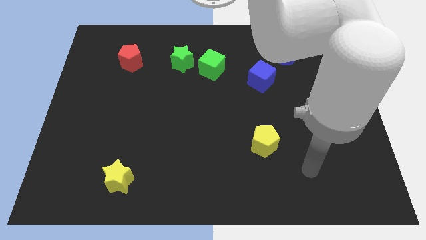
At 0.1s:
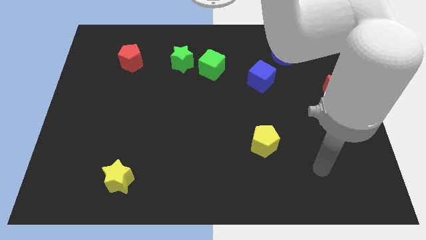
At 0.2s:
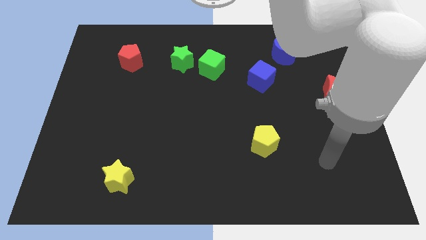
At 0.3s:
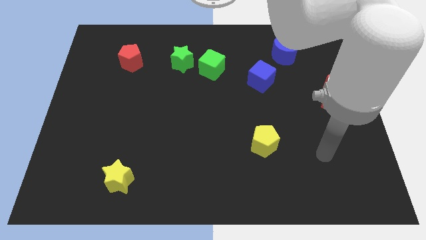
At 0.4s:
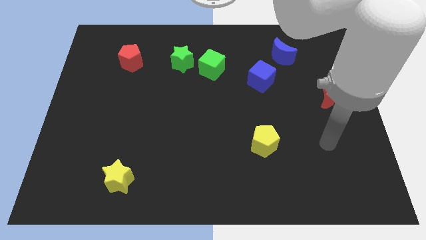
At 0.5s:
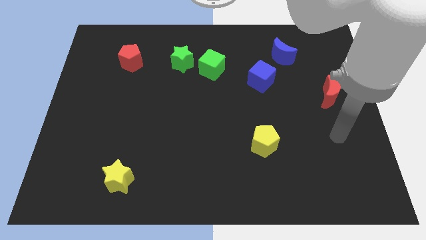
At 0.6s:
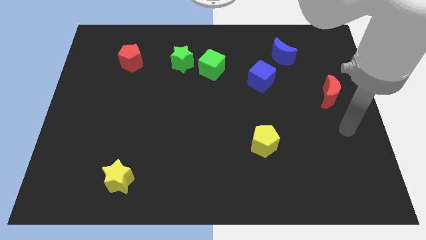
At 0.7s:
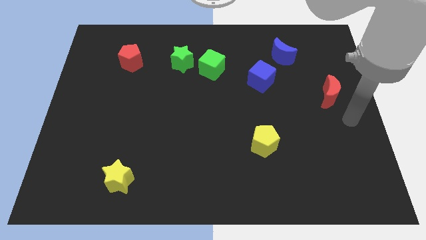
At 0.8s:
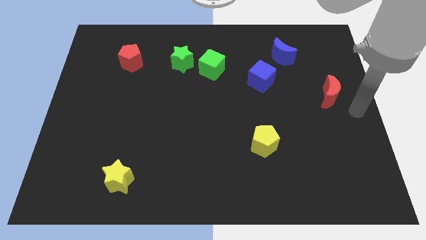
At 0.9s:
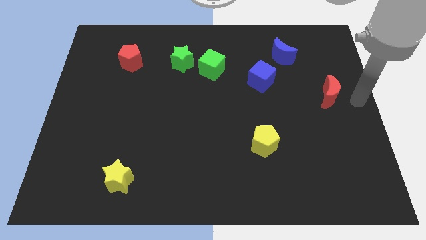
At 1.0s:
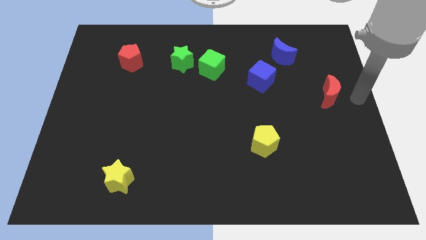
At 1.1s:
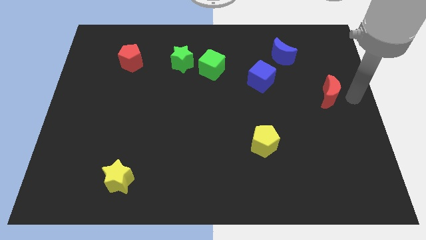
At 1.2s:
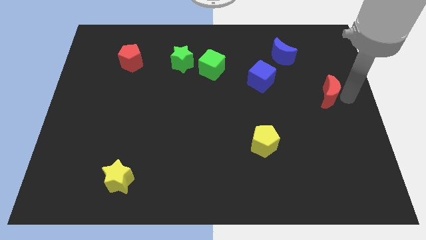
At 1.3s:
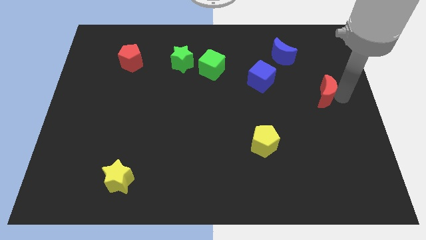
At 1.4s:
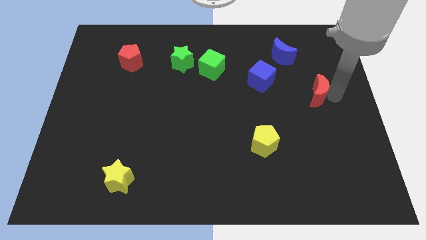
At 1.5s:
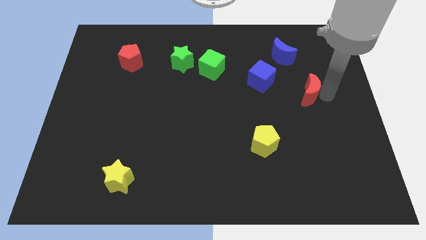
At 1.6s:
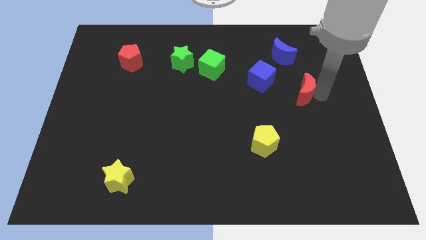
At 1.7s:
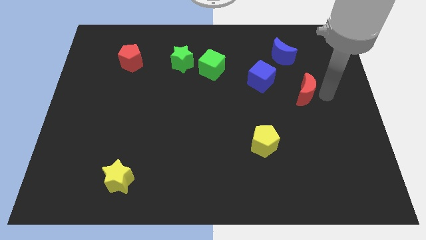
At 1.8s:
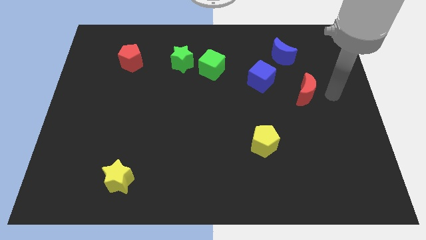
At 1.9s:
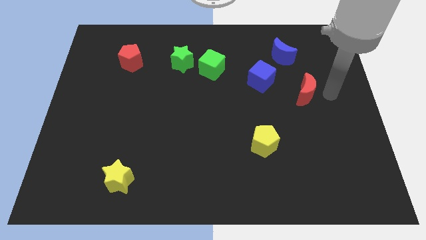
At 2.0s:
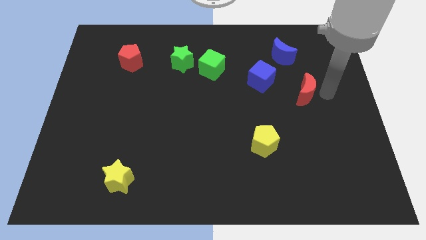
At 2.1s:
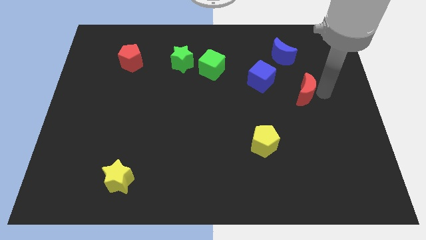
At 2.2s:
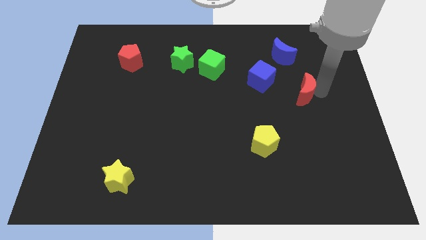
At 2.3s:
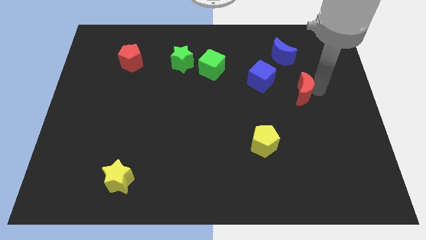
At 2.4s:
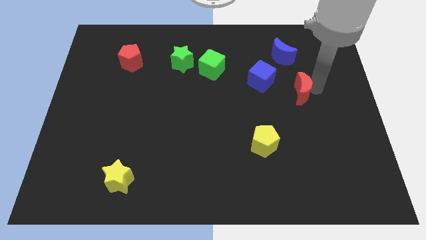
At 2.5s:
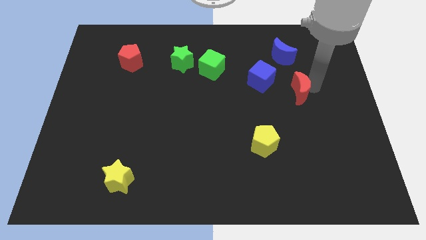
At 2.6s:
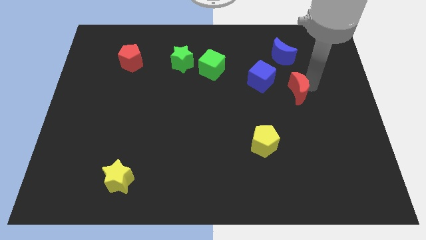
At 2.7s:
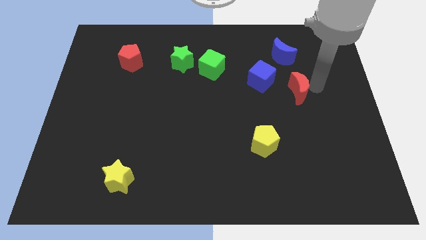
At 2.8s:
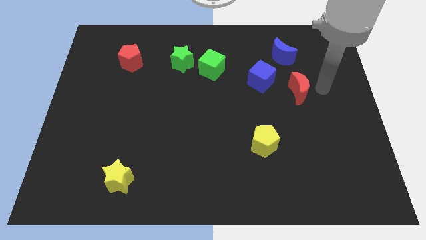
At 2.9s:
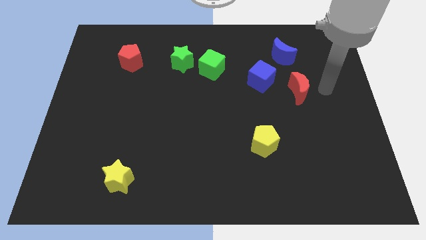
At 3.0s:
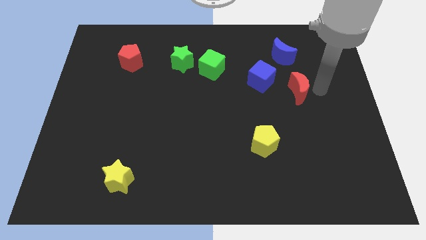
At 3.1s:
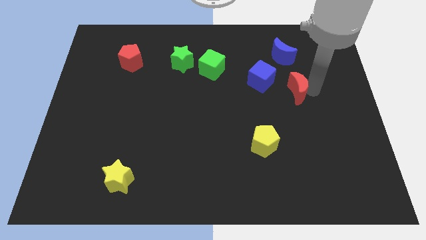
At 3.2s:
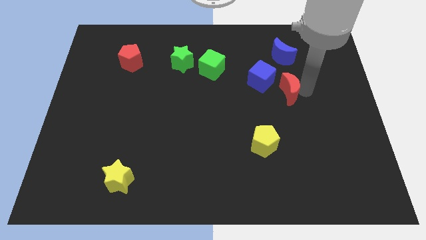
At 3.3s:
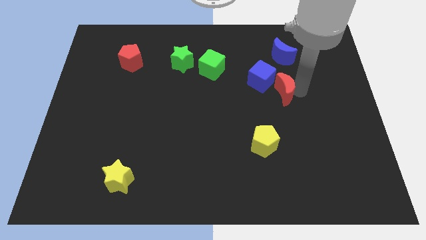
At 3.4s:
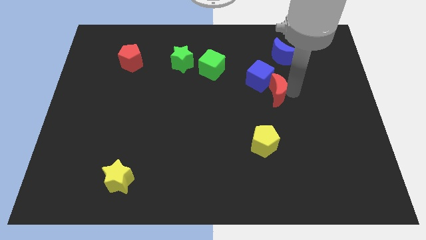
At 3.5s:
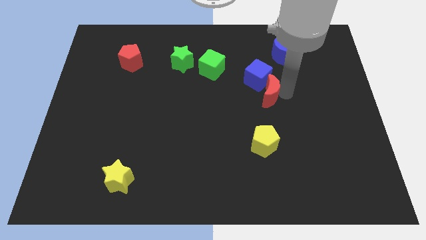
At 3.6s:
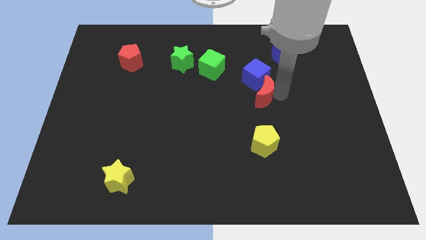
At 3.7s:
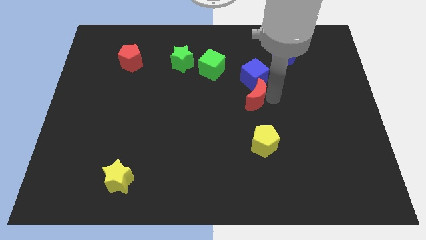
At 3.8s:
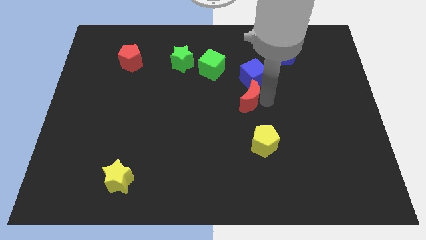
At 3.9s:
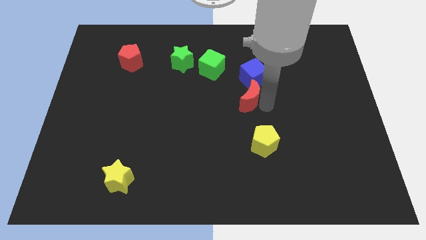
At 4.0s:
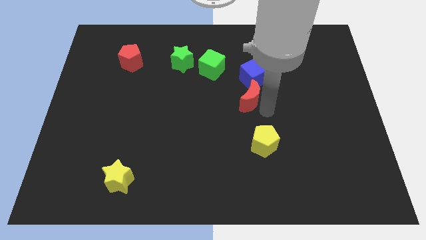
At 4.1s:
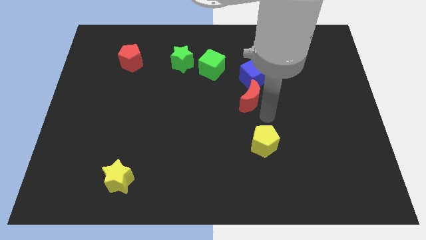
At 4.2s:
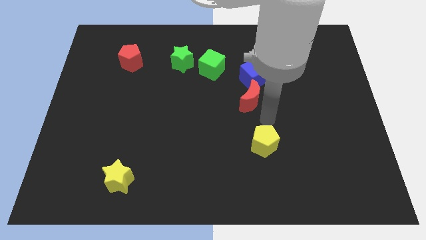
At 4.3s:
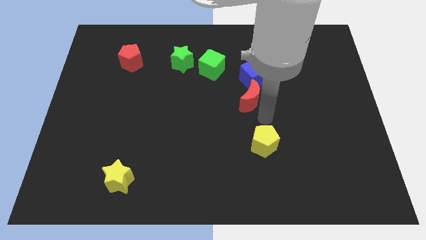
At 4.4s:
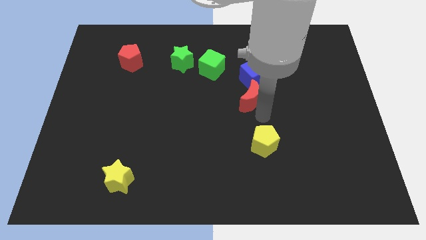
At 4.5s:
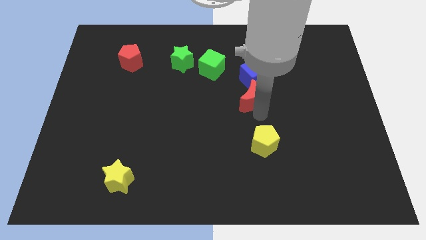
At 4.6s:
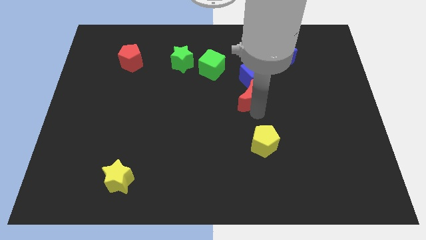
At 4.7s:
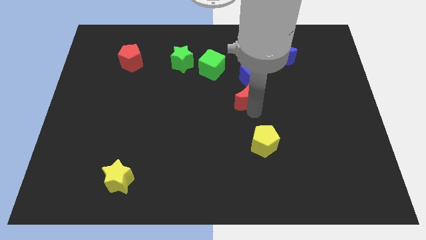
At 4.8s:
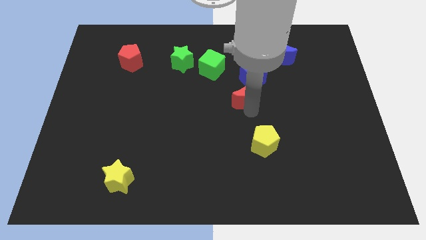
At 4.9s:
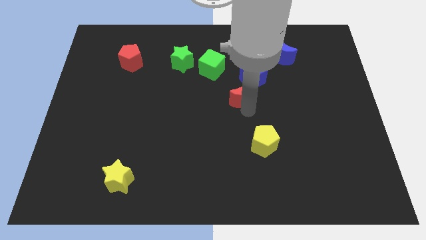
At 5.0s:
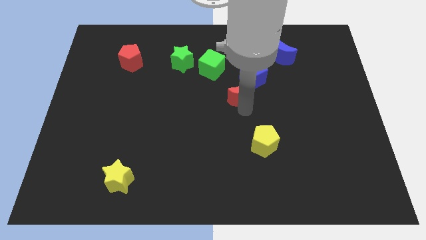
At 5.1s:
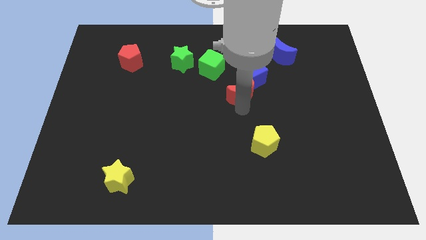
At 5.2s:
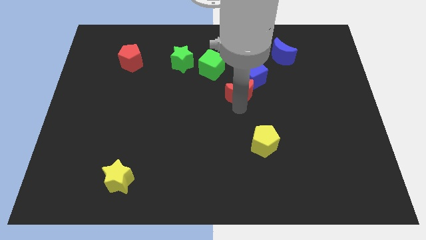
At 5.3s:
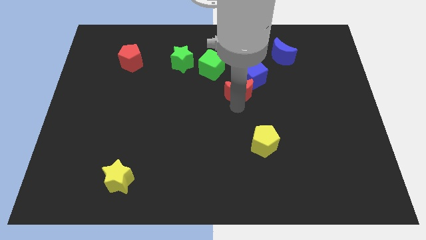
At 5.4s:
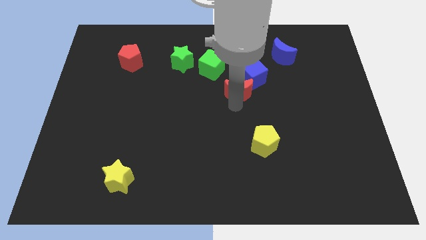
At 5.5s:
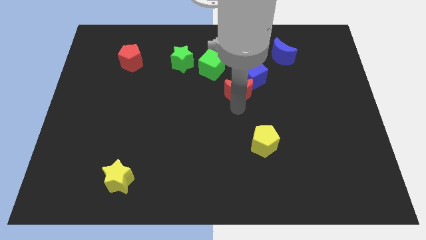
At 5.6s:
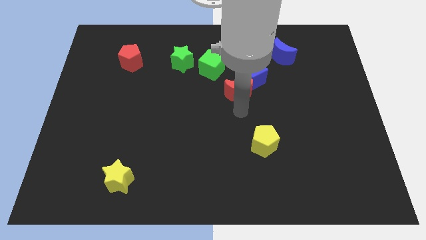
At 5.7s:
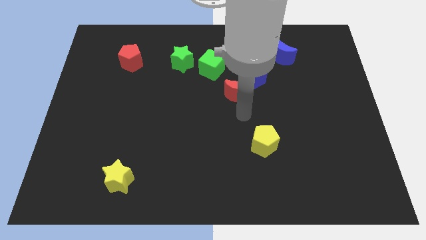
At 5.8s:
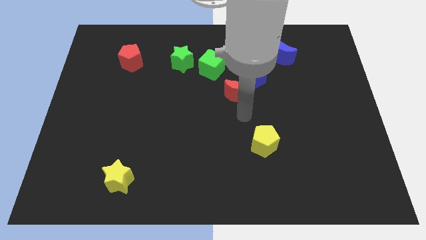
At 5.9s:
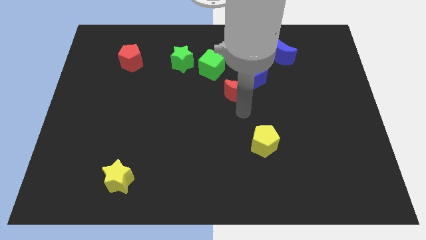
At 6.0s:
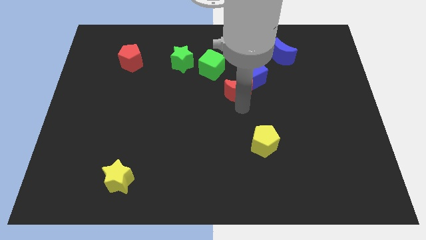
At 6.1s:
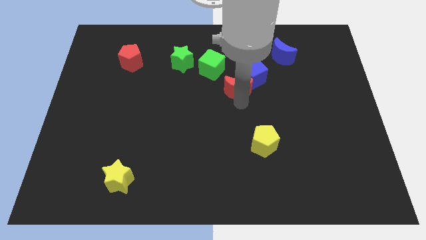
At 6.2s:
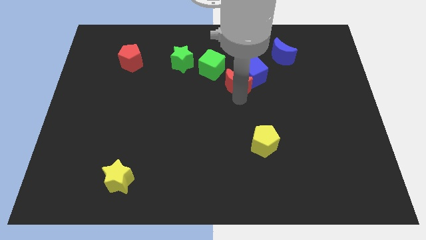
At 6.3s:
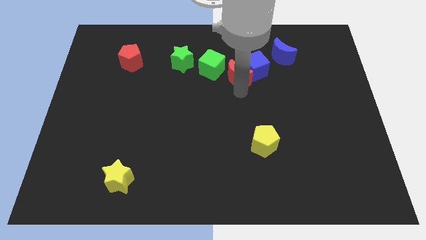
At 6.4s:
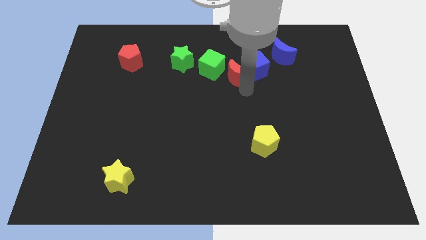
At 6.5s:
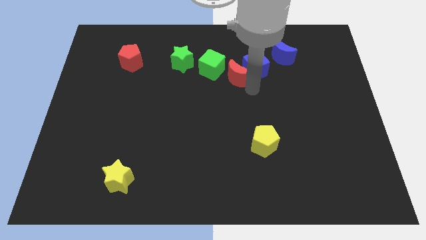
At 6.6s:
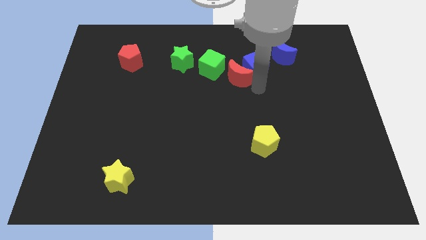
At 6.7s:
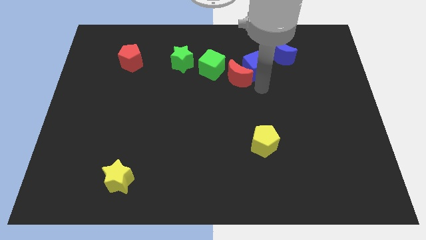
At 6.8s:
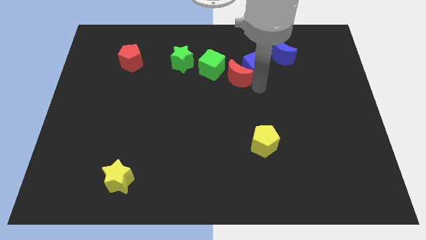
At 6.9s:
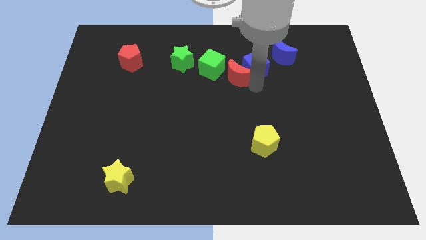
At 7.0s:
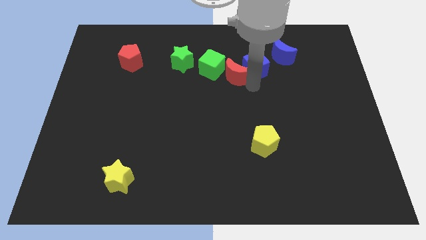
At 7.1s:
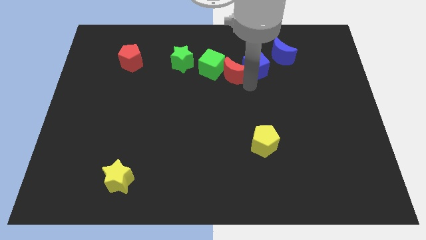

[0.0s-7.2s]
push the red moon close to the green cube
